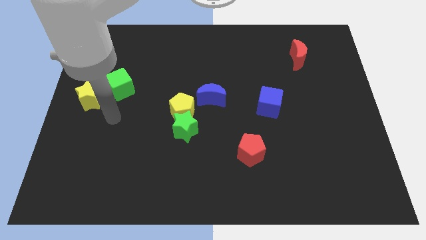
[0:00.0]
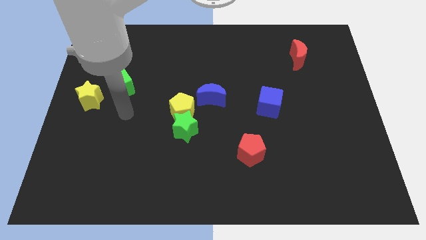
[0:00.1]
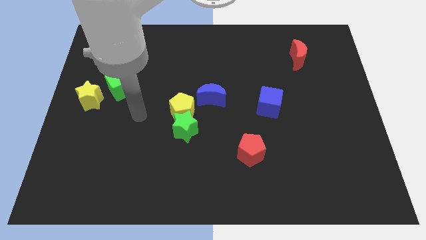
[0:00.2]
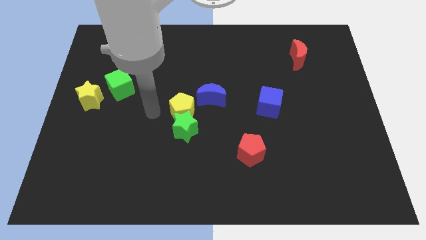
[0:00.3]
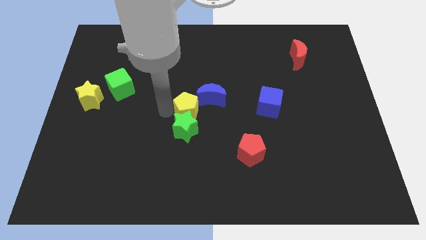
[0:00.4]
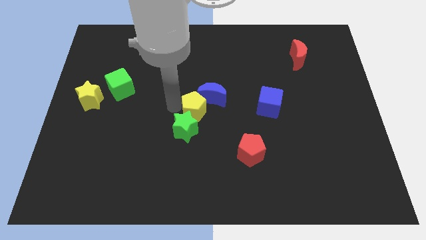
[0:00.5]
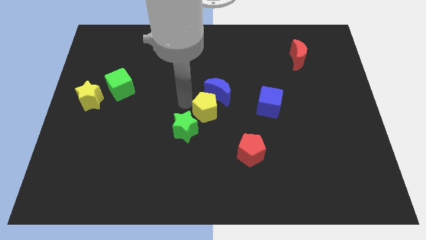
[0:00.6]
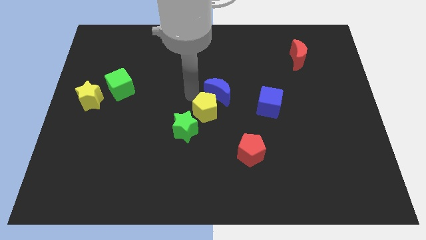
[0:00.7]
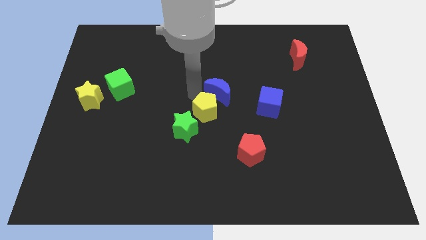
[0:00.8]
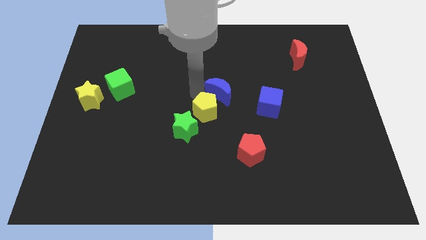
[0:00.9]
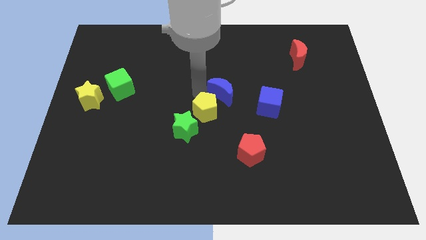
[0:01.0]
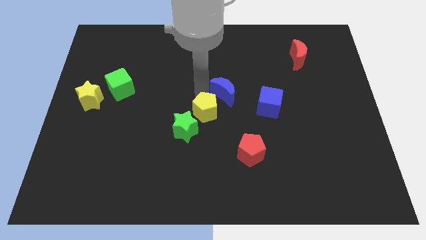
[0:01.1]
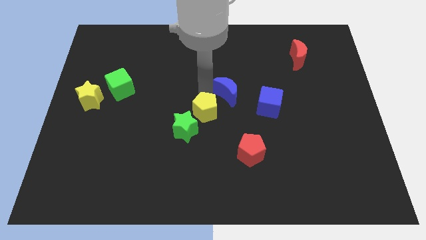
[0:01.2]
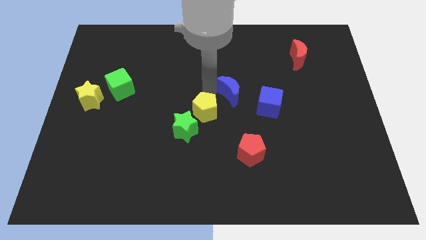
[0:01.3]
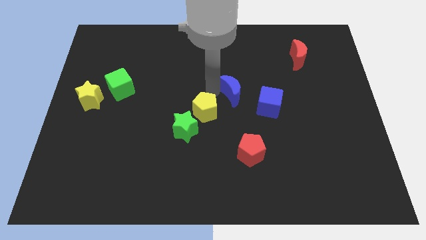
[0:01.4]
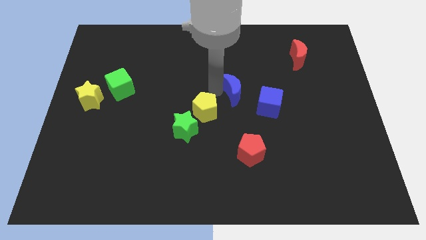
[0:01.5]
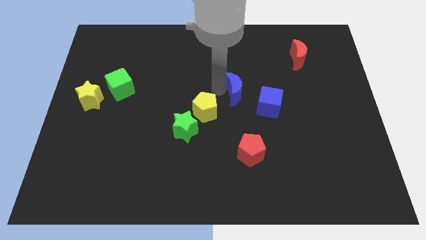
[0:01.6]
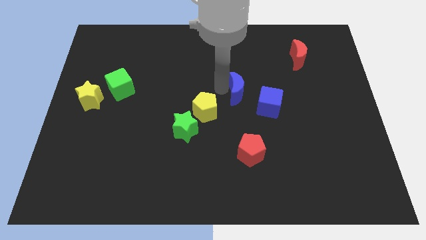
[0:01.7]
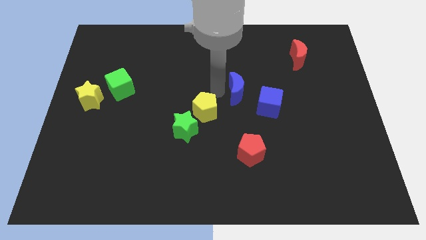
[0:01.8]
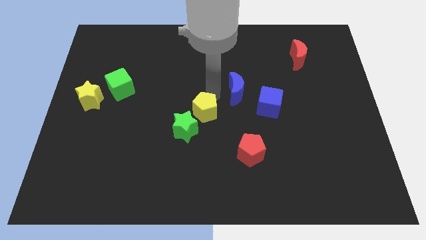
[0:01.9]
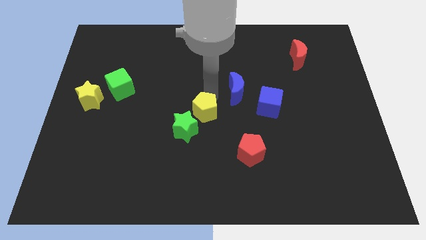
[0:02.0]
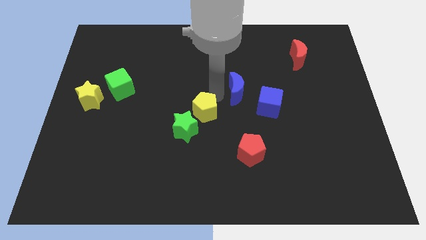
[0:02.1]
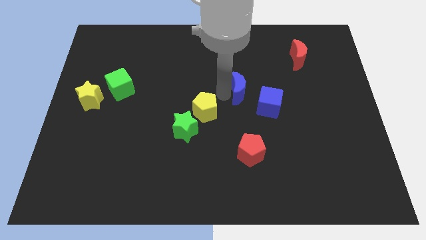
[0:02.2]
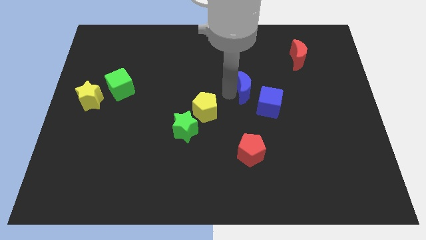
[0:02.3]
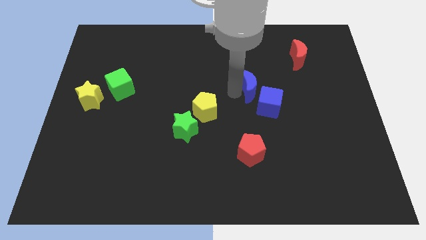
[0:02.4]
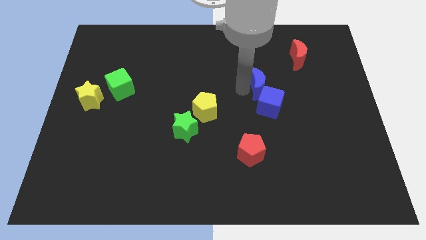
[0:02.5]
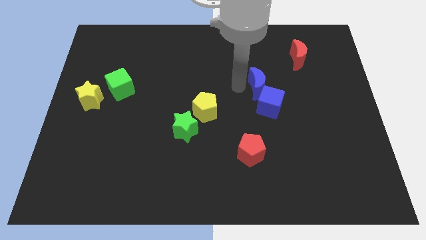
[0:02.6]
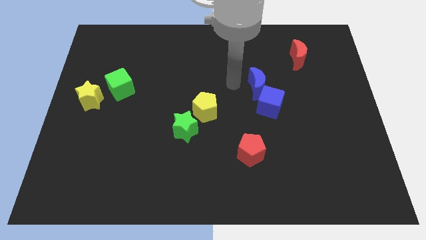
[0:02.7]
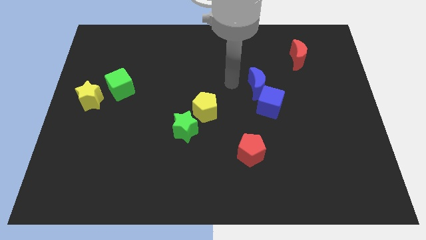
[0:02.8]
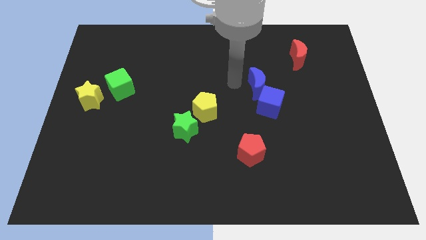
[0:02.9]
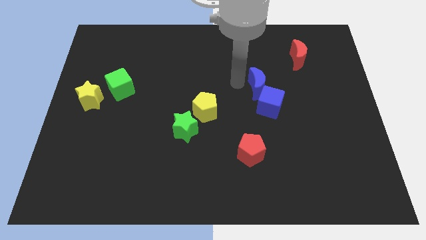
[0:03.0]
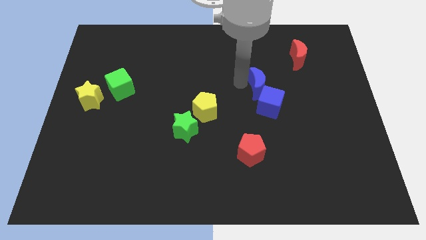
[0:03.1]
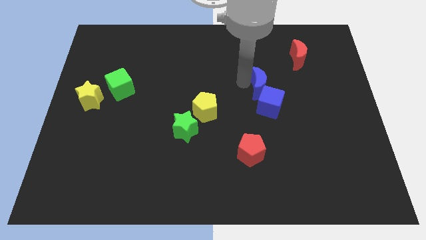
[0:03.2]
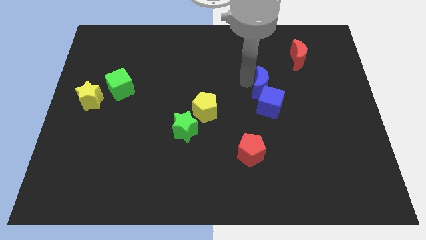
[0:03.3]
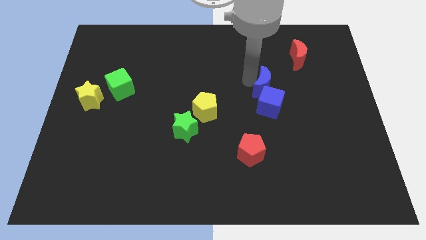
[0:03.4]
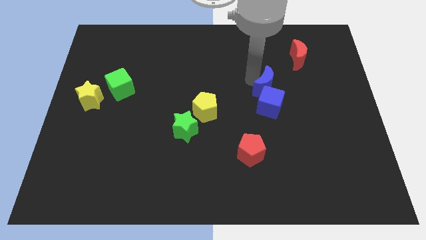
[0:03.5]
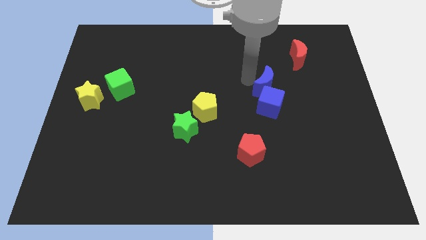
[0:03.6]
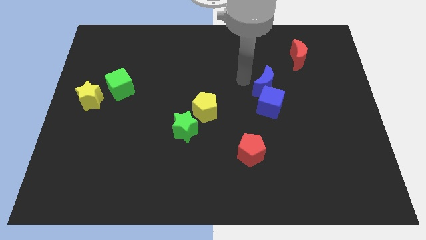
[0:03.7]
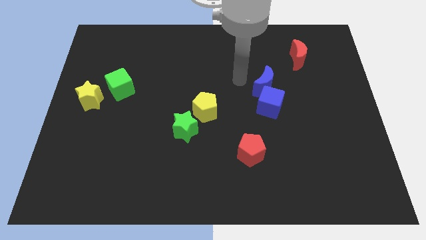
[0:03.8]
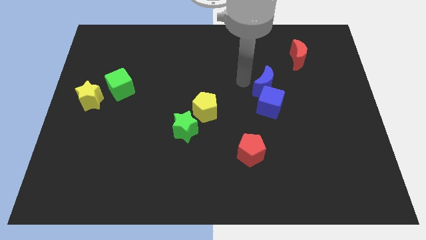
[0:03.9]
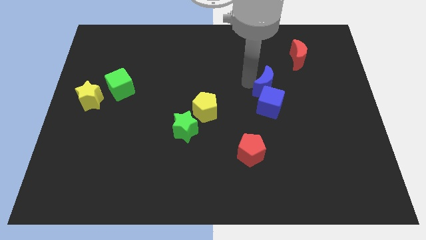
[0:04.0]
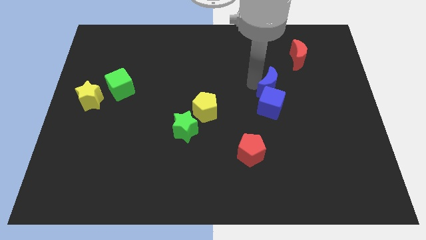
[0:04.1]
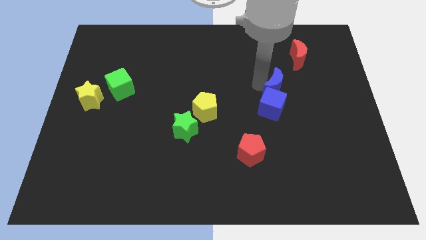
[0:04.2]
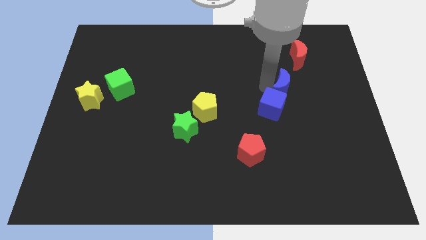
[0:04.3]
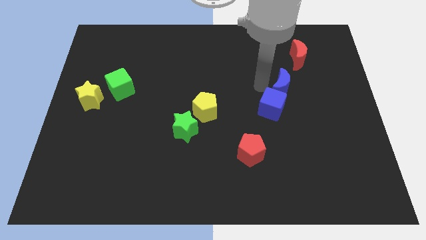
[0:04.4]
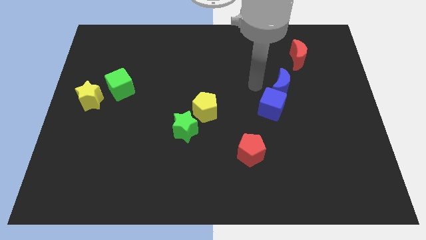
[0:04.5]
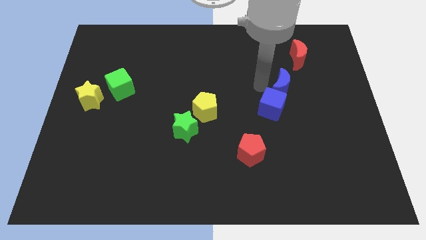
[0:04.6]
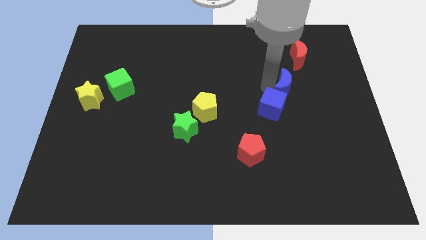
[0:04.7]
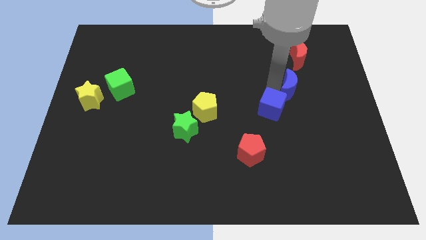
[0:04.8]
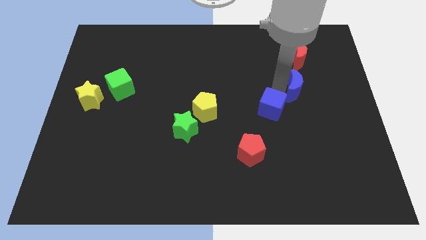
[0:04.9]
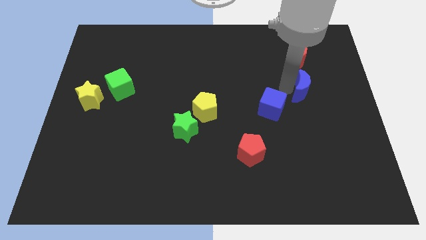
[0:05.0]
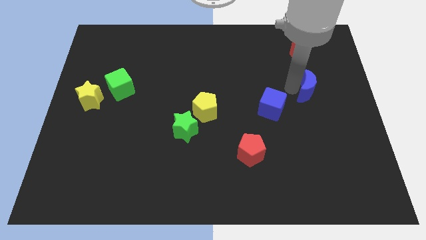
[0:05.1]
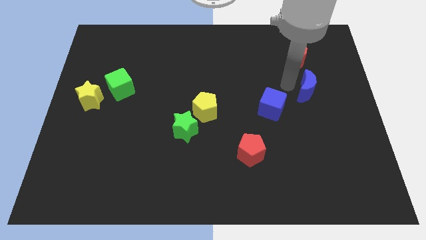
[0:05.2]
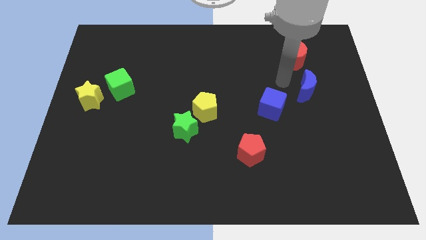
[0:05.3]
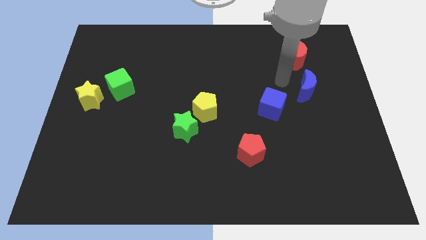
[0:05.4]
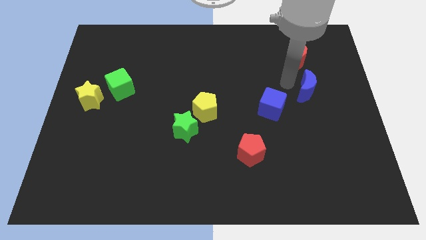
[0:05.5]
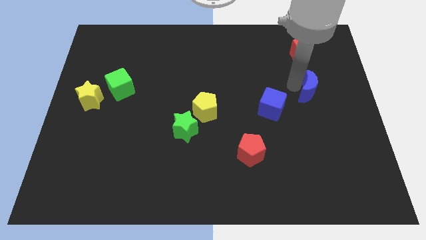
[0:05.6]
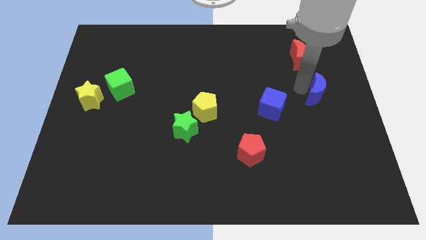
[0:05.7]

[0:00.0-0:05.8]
put the blue moon to the right side

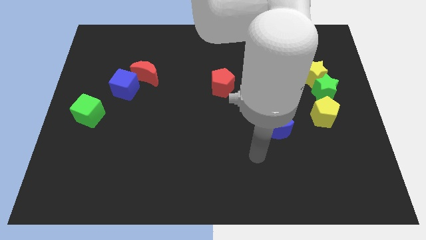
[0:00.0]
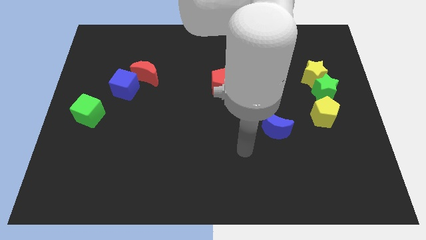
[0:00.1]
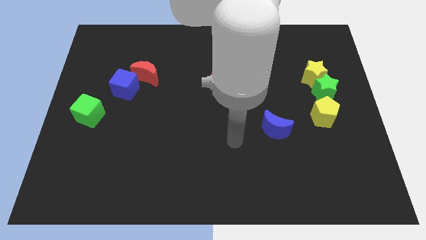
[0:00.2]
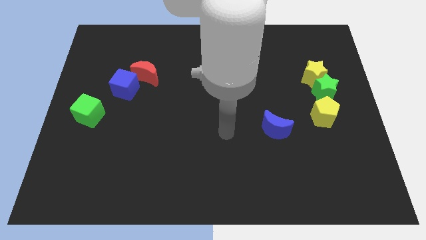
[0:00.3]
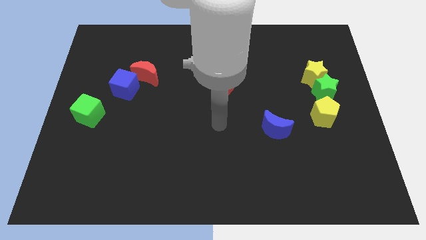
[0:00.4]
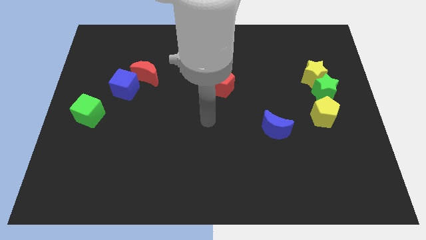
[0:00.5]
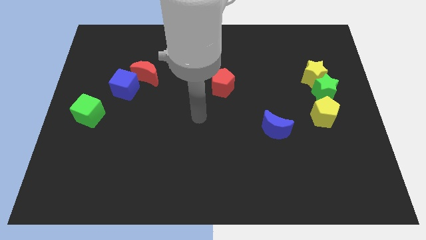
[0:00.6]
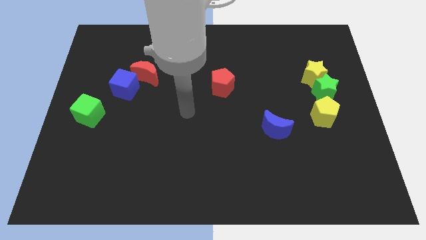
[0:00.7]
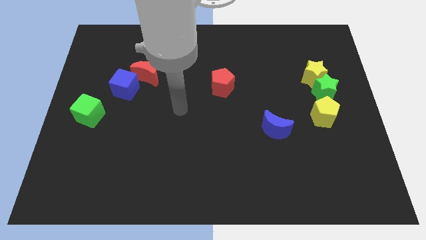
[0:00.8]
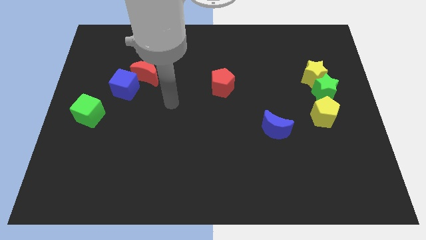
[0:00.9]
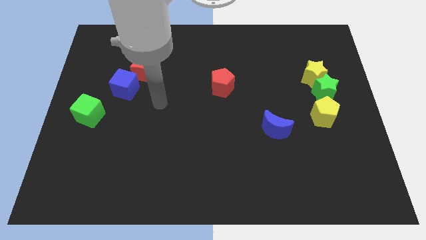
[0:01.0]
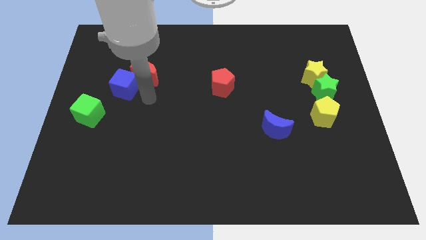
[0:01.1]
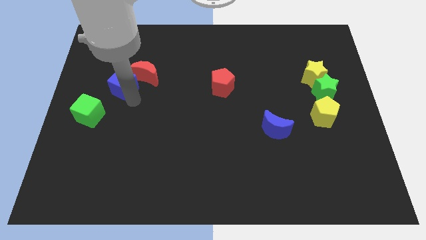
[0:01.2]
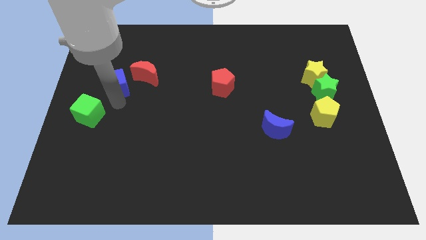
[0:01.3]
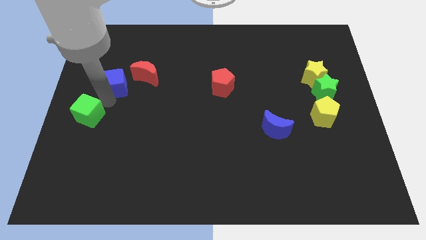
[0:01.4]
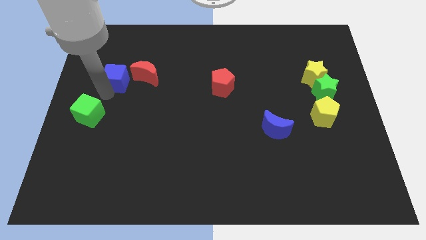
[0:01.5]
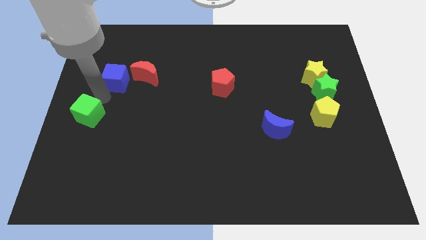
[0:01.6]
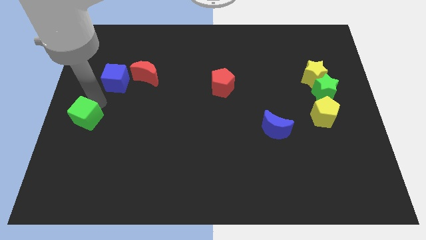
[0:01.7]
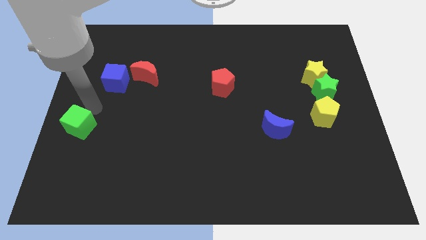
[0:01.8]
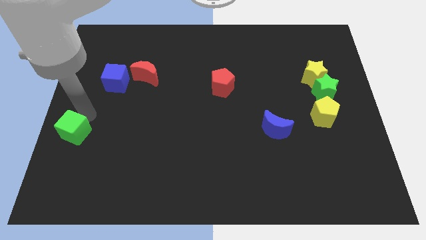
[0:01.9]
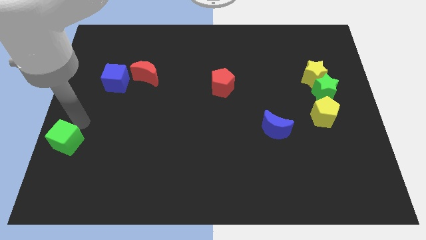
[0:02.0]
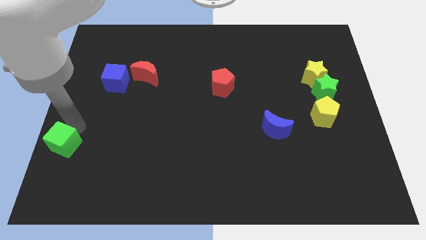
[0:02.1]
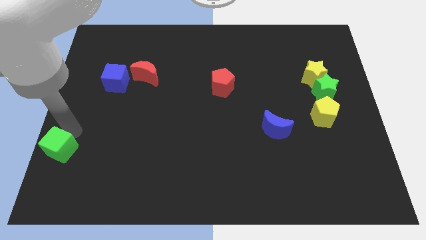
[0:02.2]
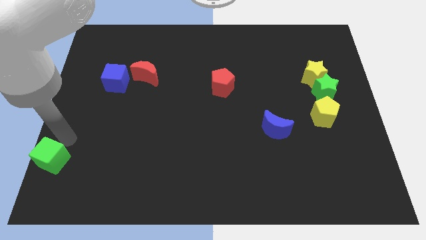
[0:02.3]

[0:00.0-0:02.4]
put the green cube to the lower left corner
